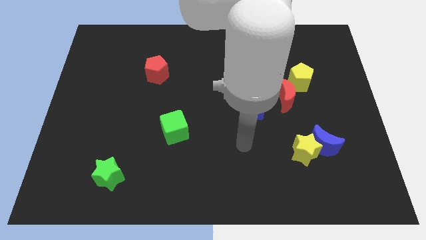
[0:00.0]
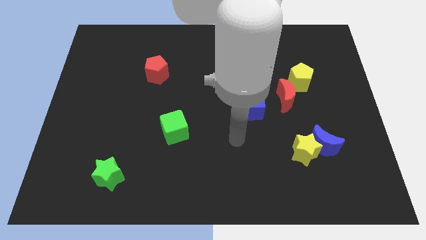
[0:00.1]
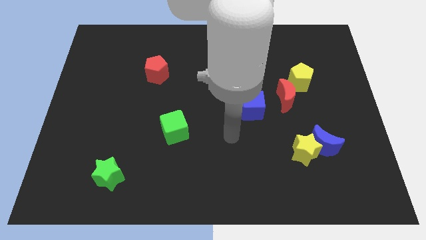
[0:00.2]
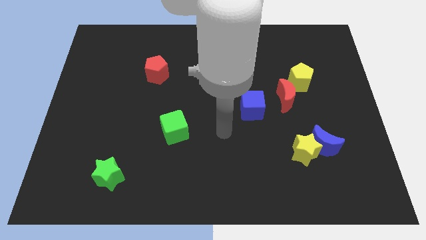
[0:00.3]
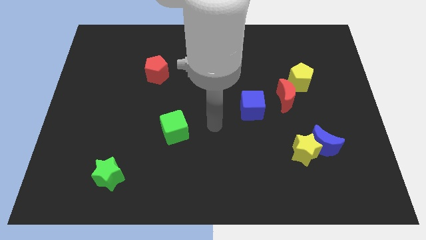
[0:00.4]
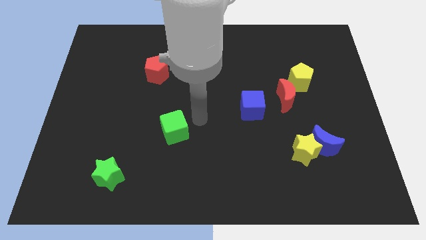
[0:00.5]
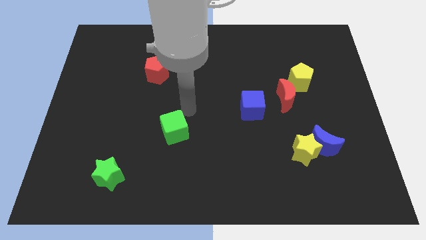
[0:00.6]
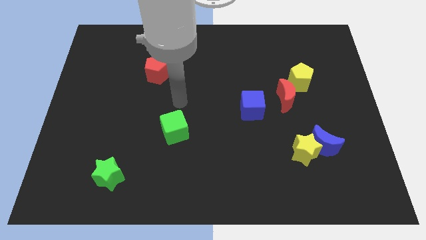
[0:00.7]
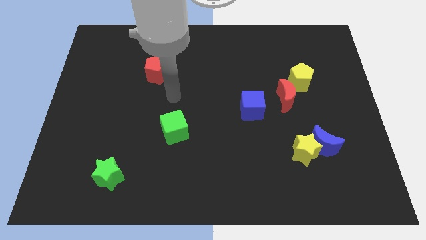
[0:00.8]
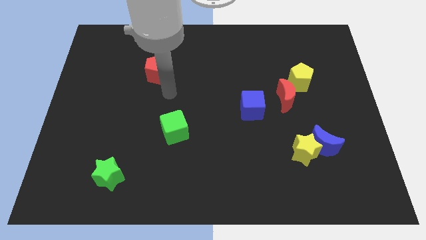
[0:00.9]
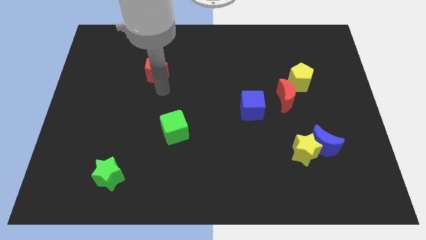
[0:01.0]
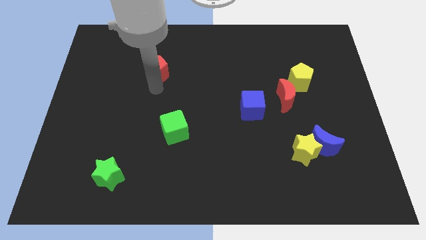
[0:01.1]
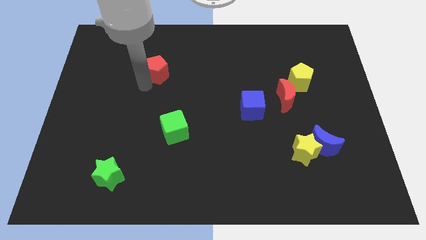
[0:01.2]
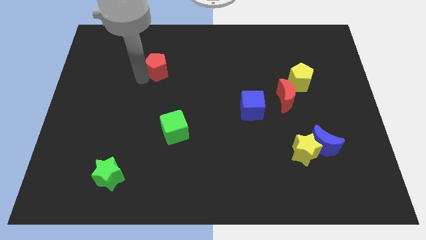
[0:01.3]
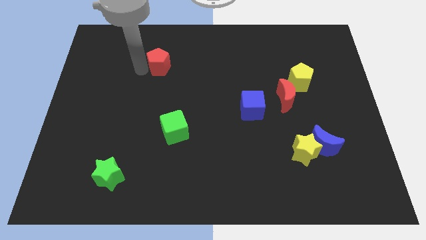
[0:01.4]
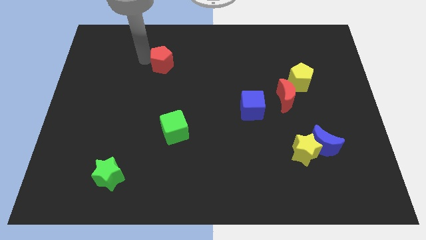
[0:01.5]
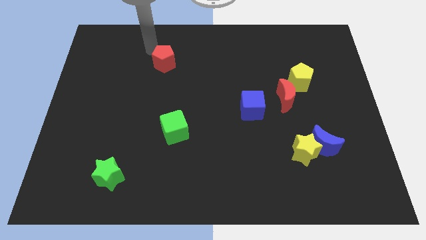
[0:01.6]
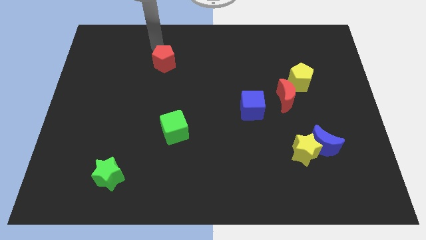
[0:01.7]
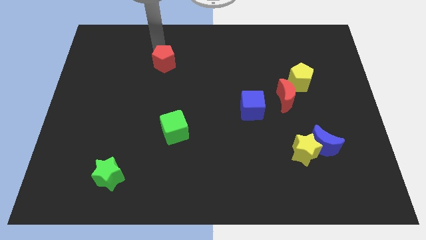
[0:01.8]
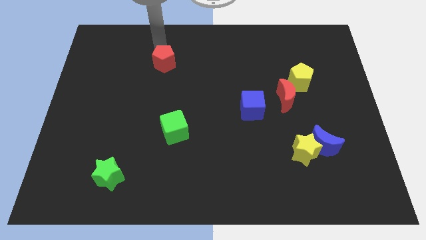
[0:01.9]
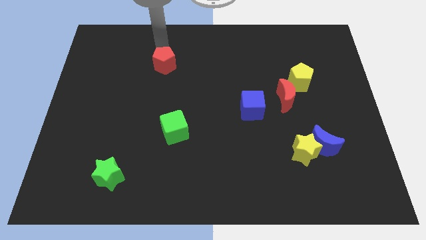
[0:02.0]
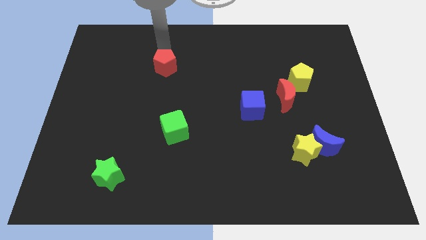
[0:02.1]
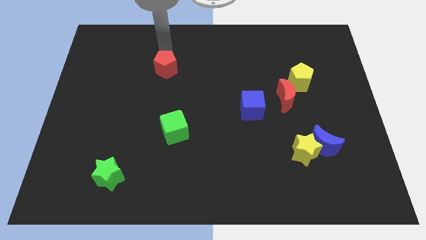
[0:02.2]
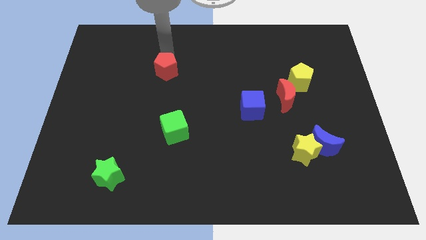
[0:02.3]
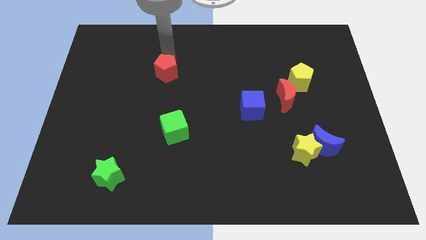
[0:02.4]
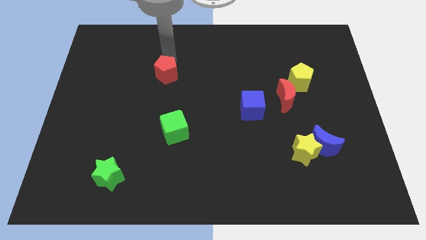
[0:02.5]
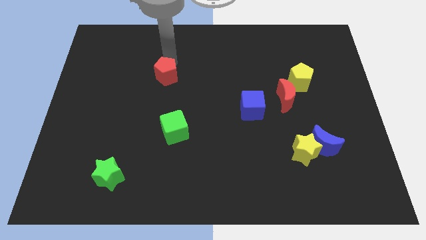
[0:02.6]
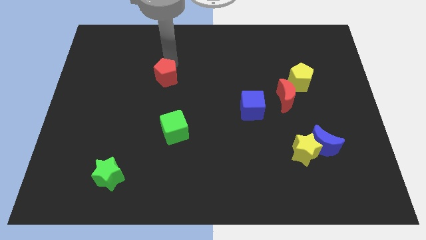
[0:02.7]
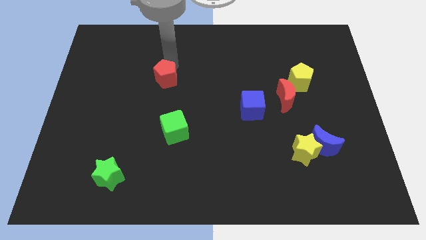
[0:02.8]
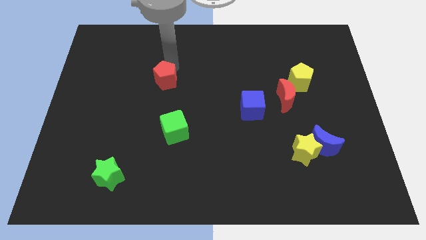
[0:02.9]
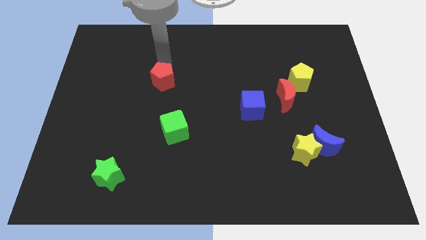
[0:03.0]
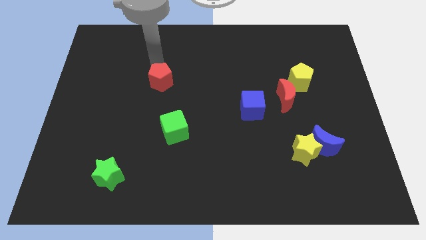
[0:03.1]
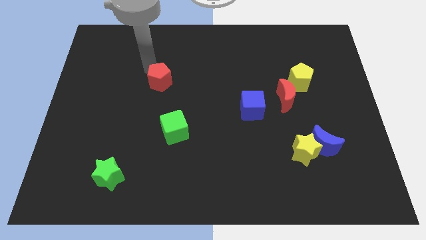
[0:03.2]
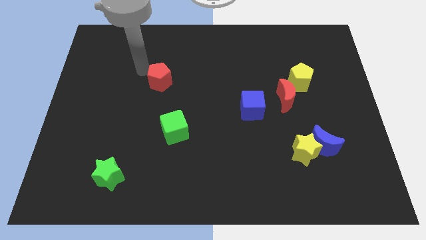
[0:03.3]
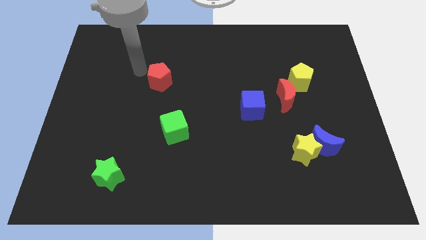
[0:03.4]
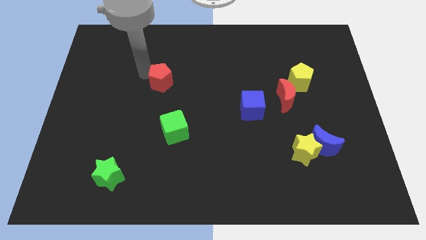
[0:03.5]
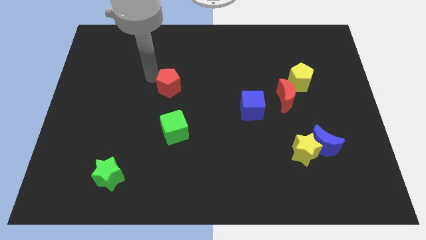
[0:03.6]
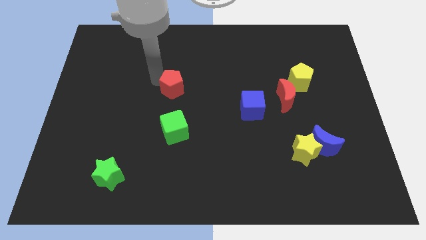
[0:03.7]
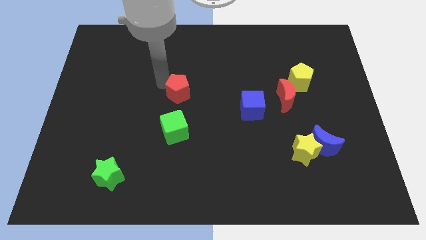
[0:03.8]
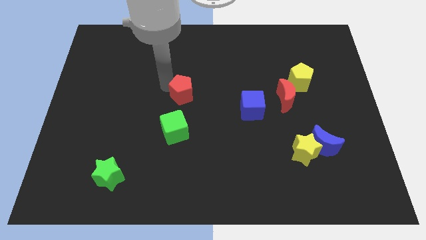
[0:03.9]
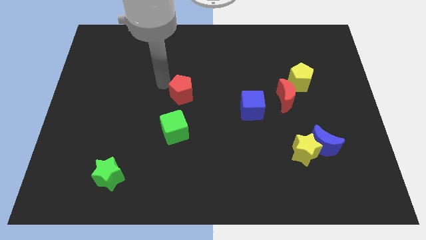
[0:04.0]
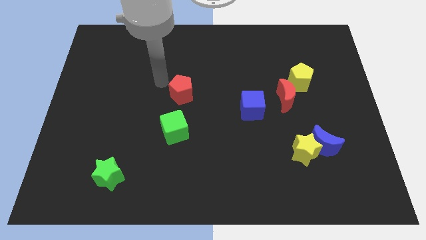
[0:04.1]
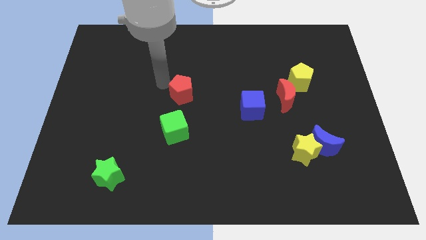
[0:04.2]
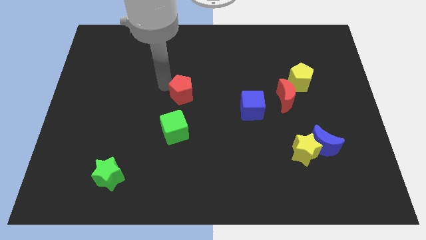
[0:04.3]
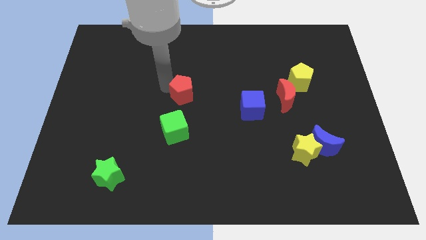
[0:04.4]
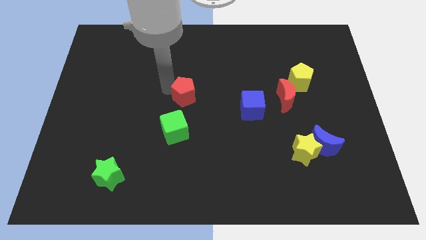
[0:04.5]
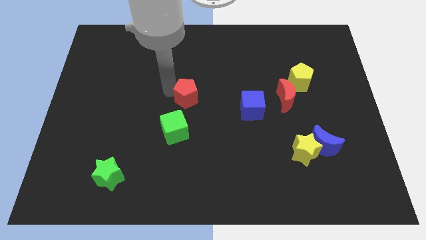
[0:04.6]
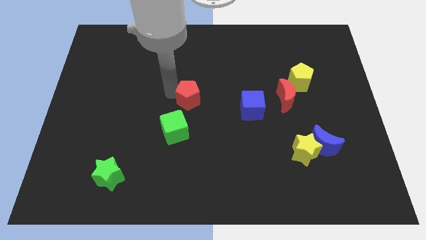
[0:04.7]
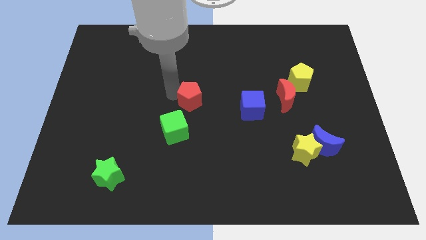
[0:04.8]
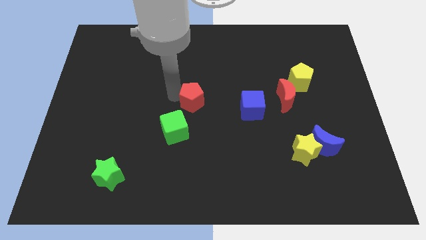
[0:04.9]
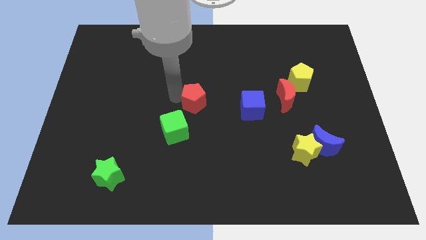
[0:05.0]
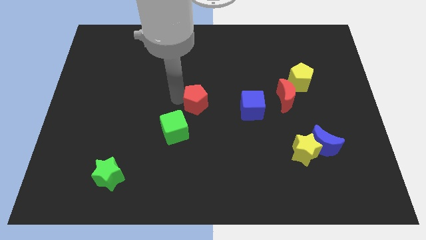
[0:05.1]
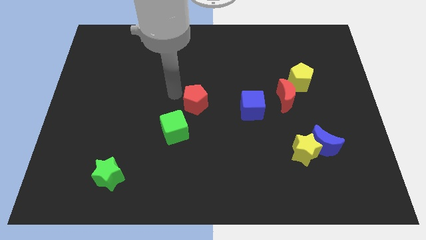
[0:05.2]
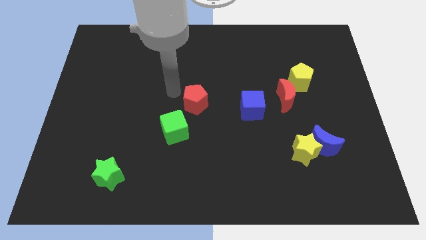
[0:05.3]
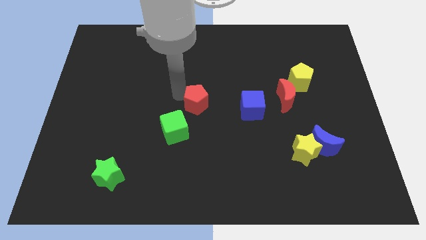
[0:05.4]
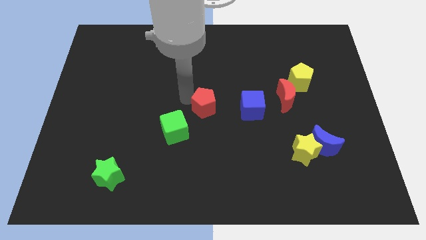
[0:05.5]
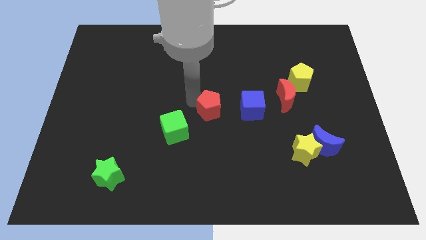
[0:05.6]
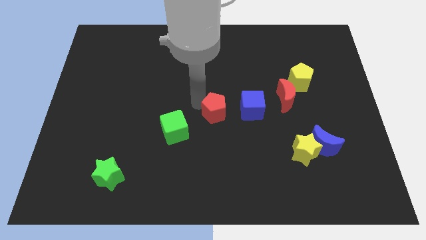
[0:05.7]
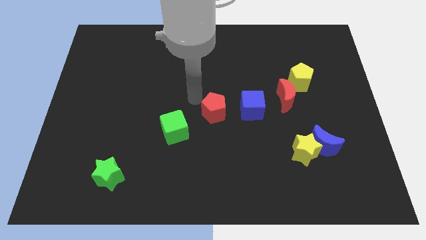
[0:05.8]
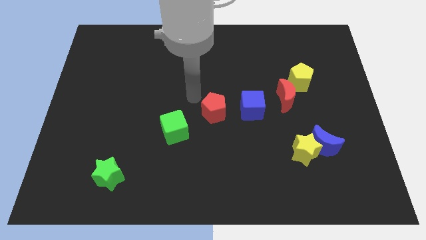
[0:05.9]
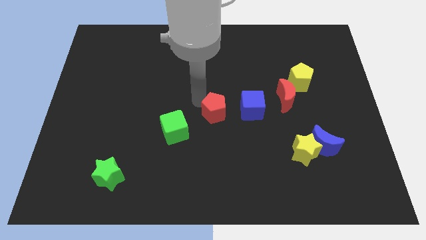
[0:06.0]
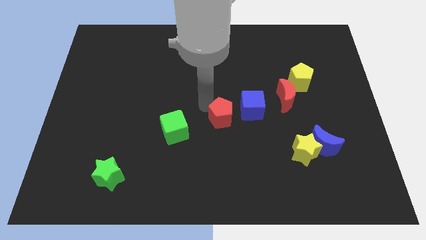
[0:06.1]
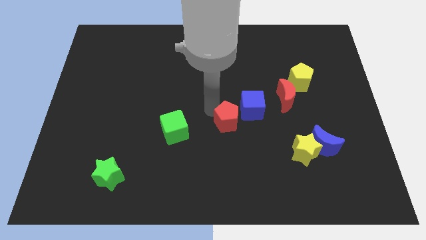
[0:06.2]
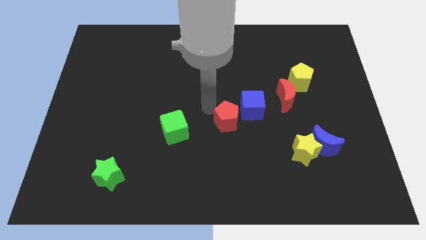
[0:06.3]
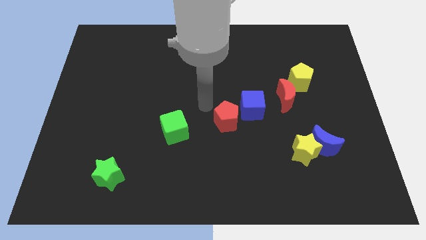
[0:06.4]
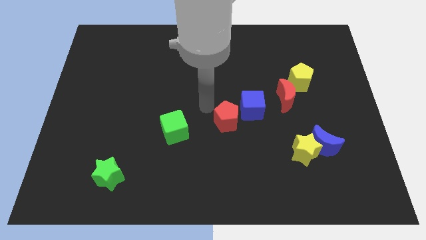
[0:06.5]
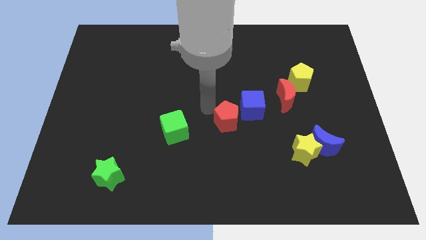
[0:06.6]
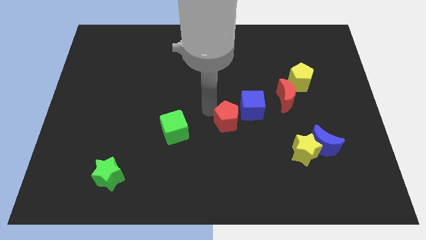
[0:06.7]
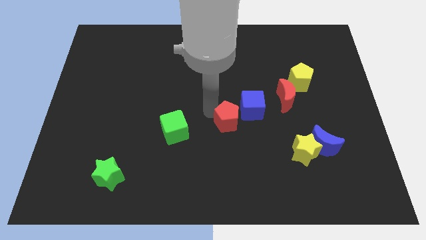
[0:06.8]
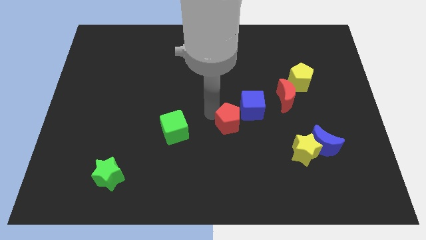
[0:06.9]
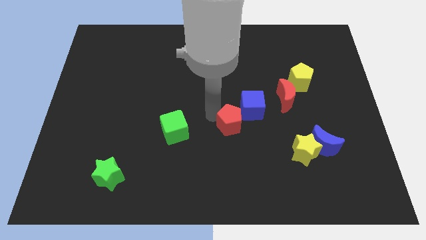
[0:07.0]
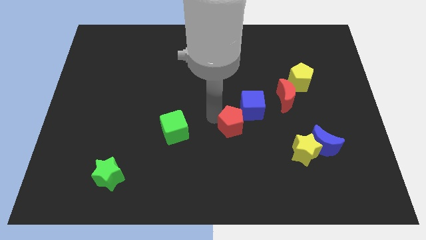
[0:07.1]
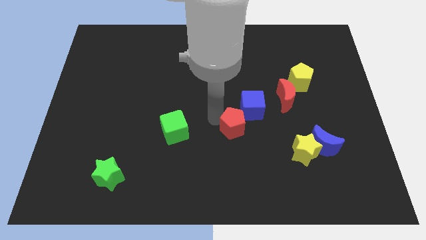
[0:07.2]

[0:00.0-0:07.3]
move the red pentagon below the blue cube

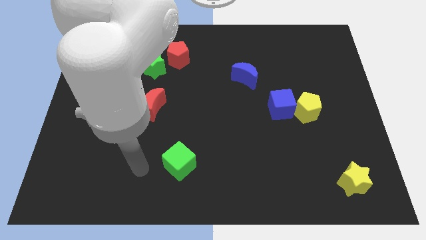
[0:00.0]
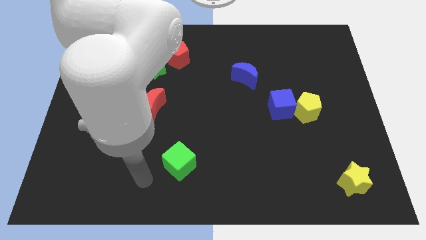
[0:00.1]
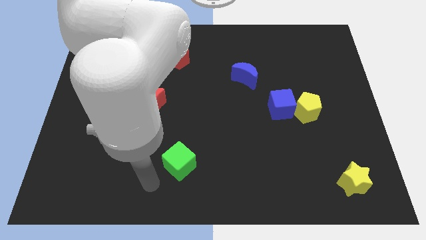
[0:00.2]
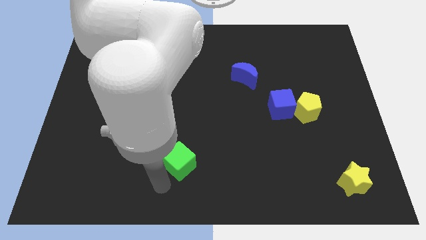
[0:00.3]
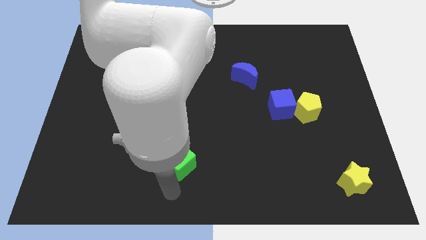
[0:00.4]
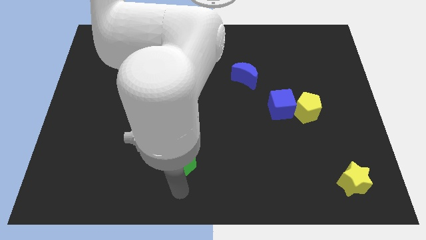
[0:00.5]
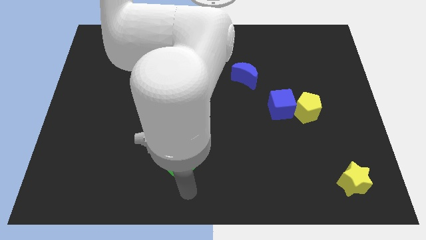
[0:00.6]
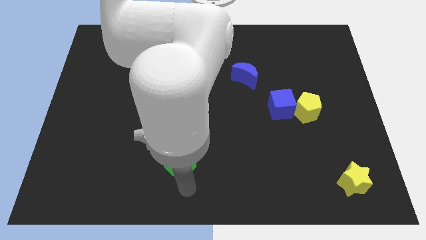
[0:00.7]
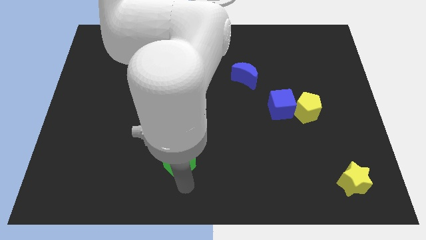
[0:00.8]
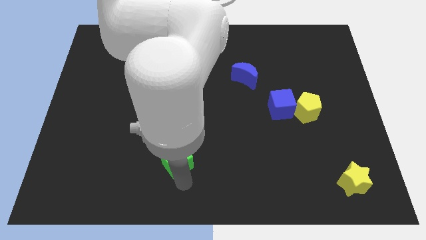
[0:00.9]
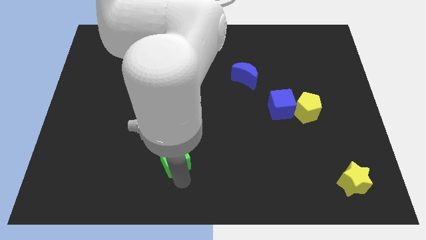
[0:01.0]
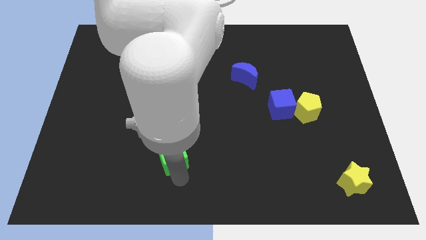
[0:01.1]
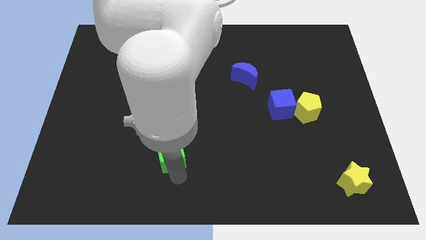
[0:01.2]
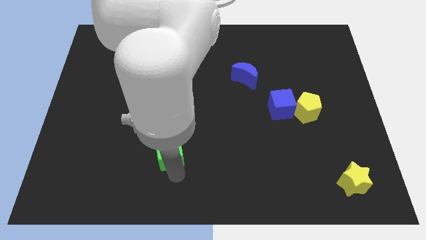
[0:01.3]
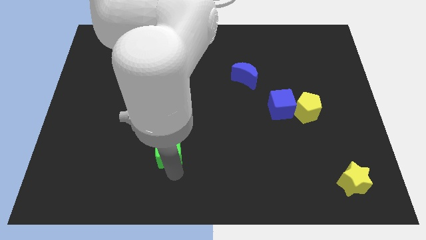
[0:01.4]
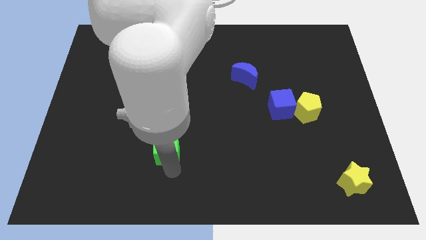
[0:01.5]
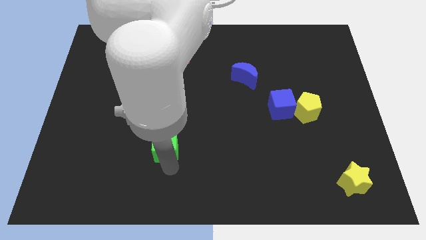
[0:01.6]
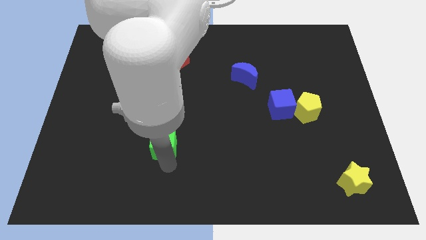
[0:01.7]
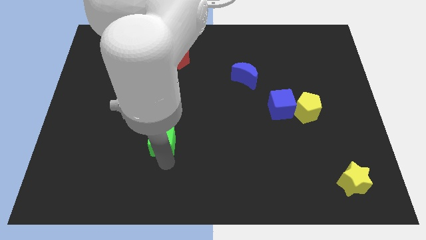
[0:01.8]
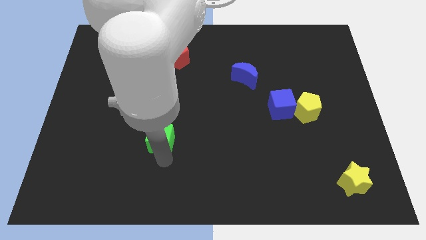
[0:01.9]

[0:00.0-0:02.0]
put the green cube diagonally down and to the right of the red moon
